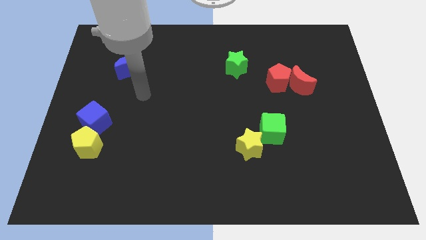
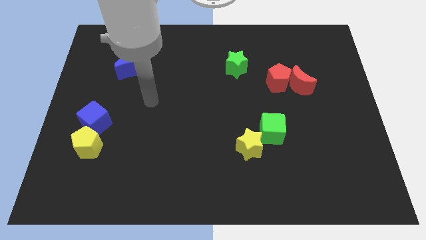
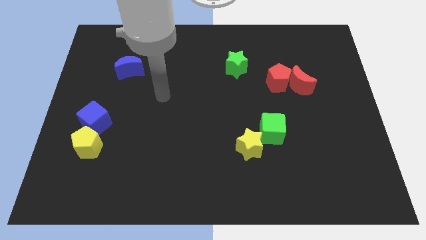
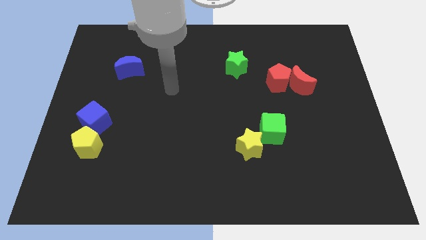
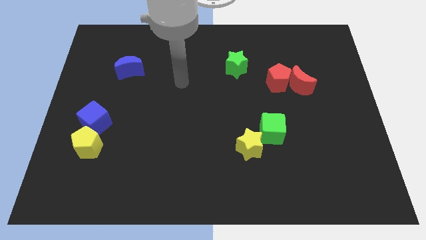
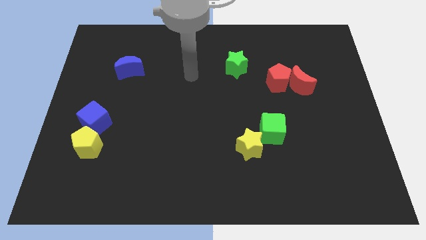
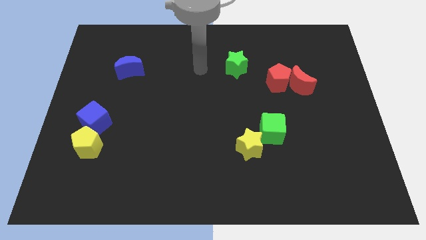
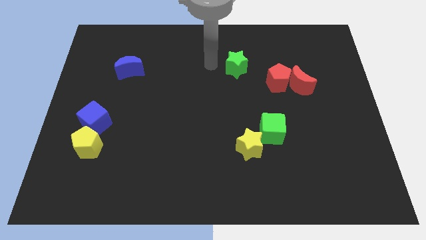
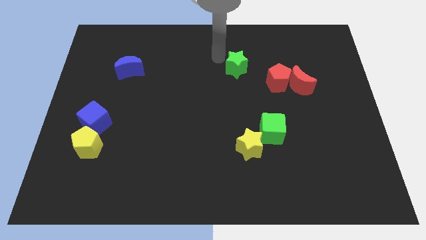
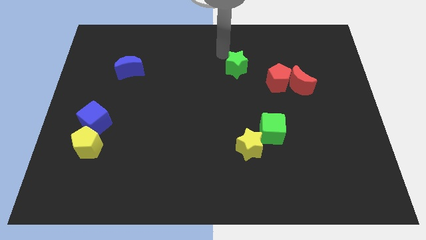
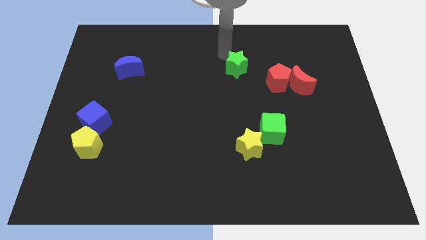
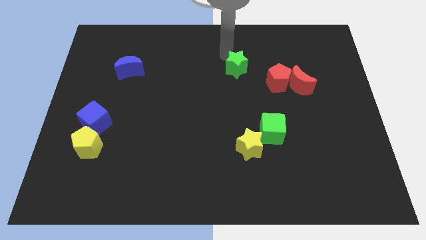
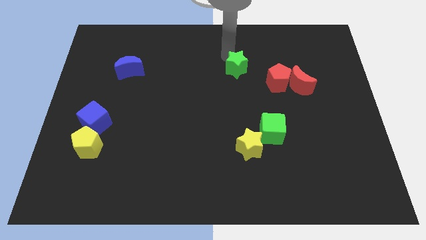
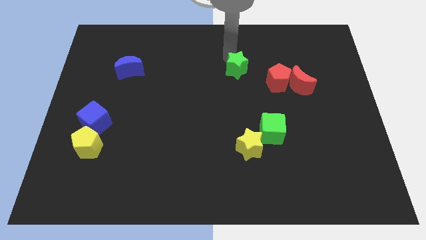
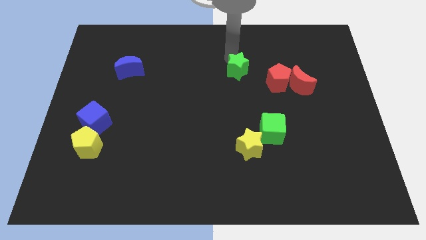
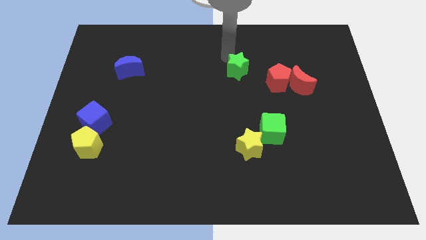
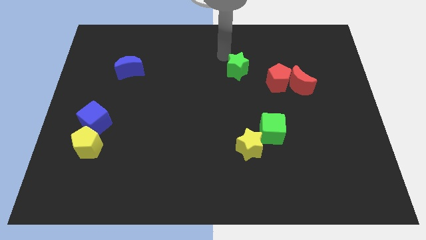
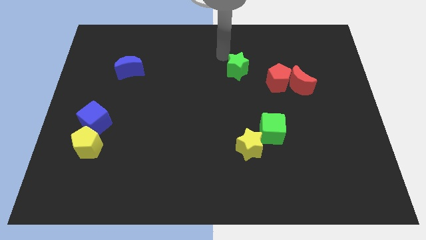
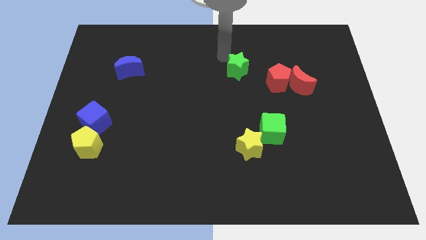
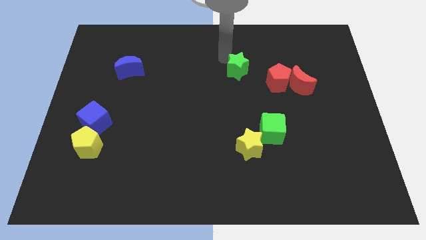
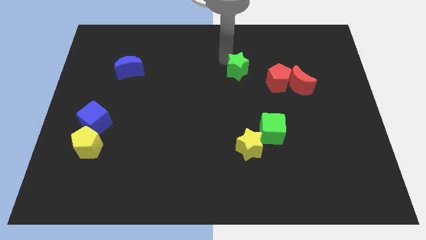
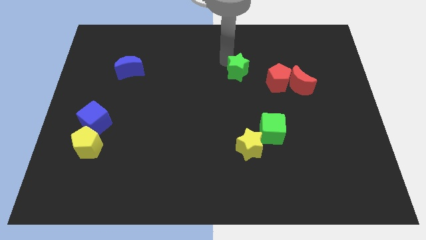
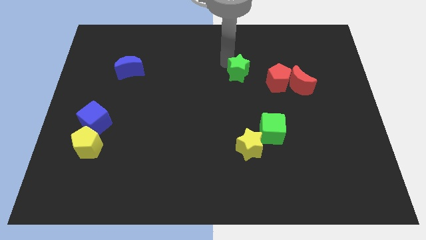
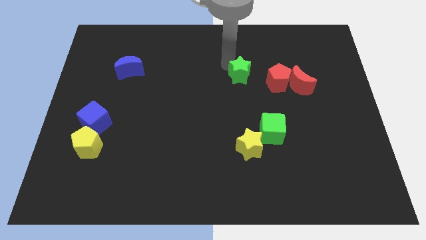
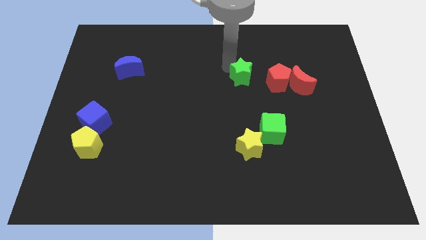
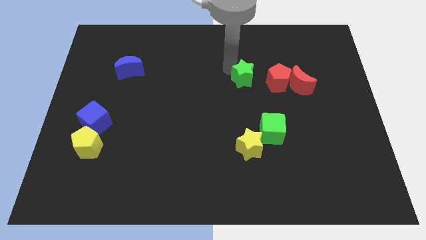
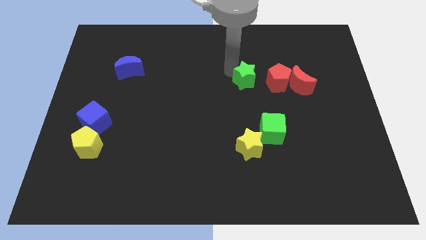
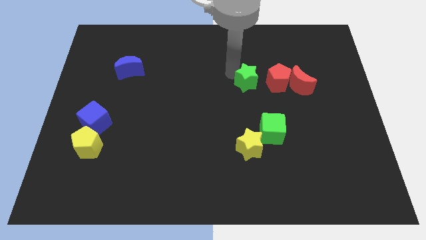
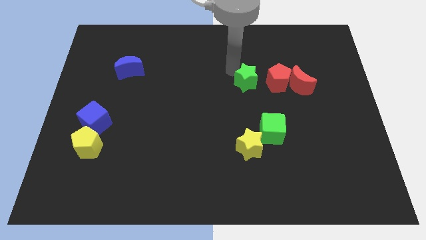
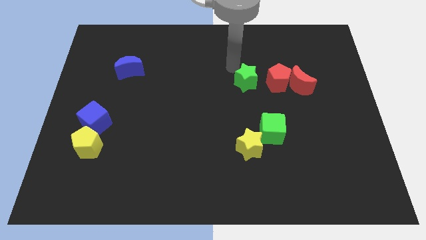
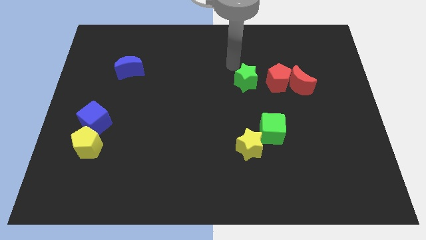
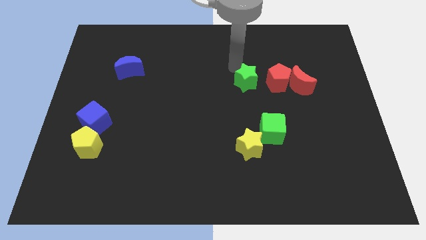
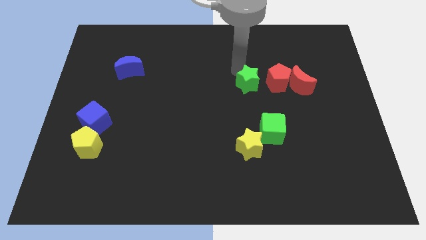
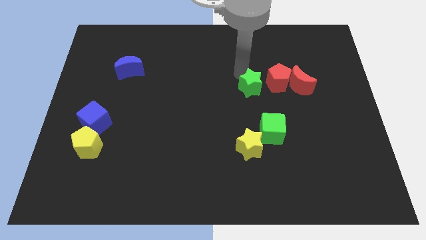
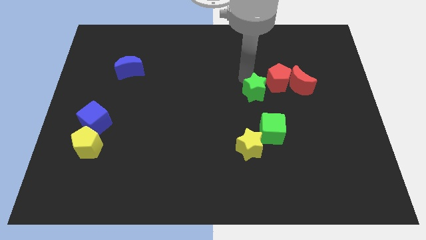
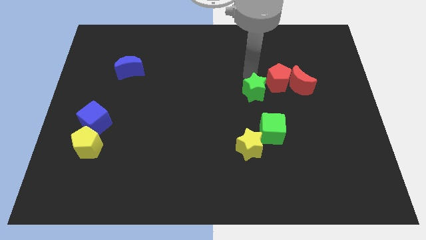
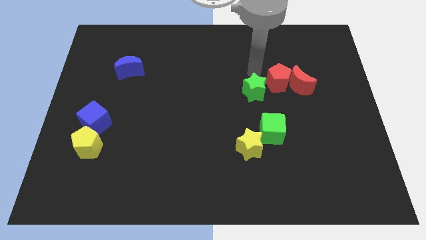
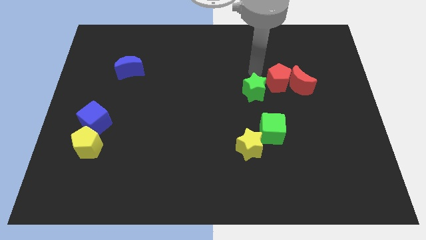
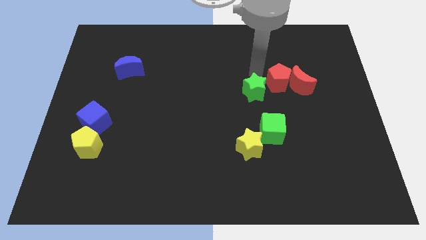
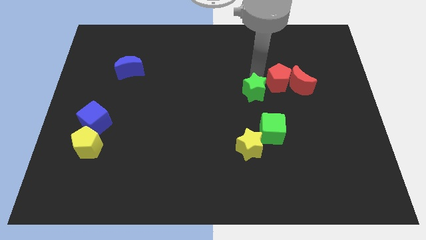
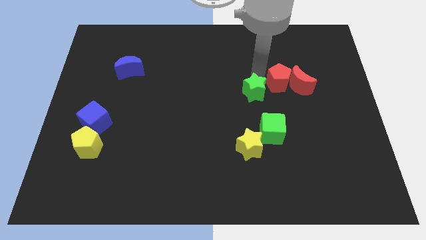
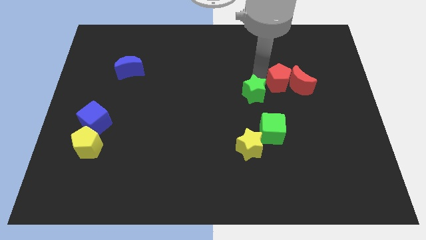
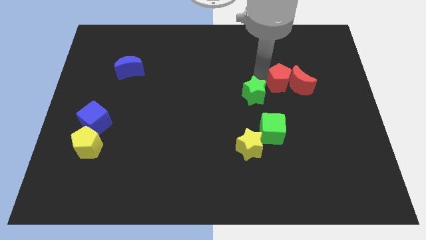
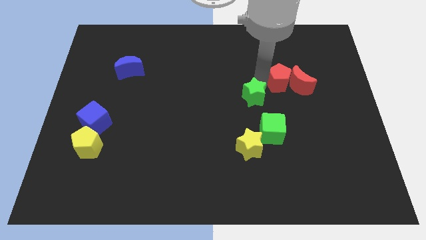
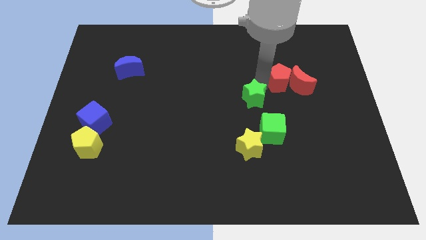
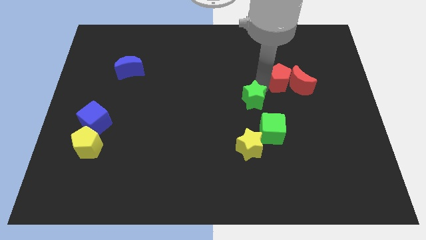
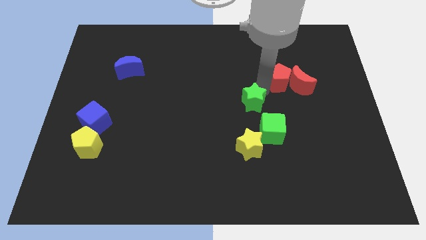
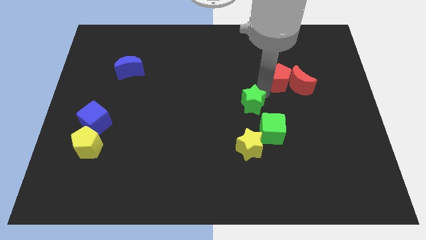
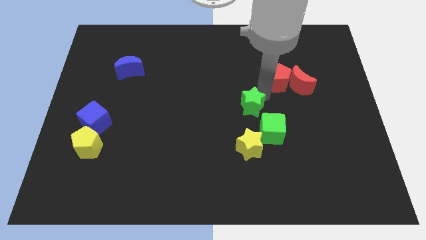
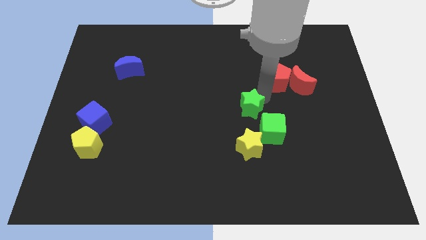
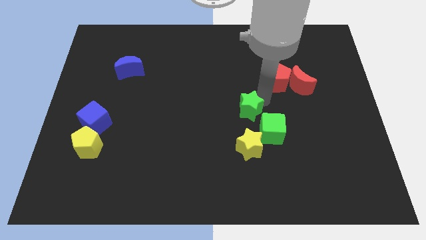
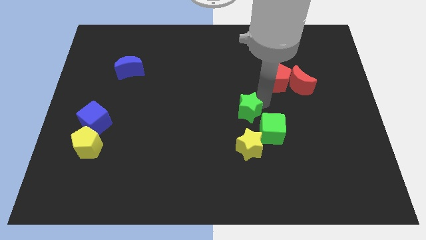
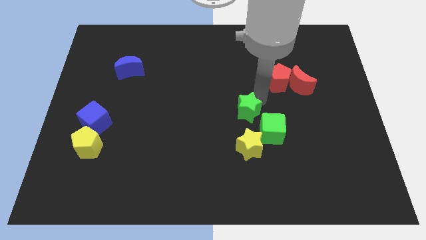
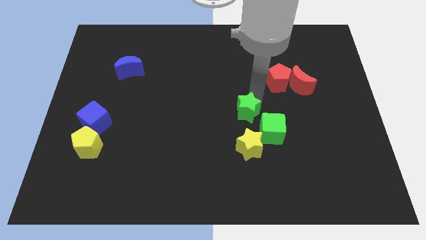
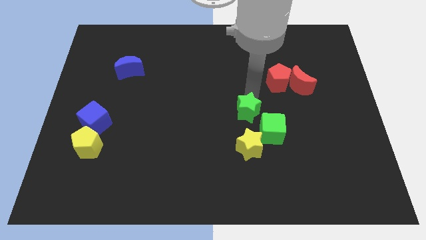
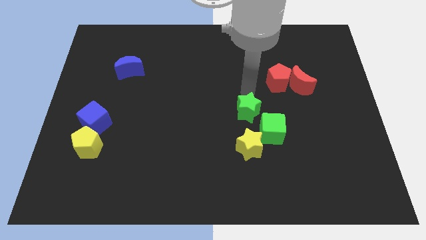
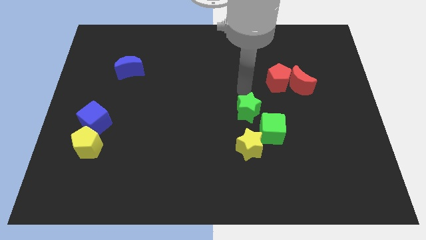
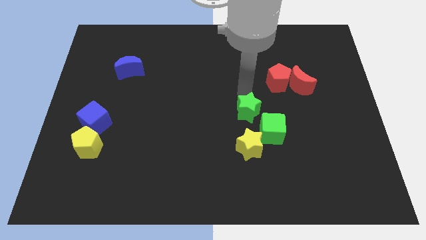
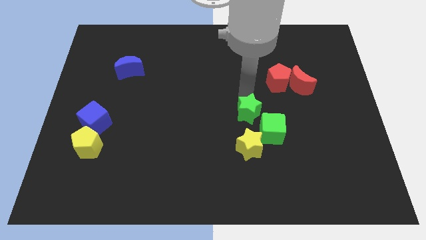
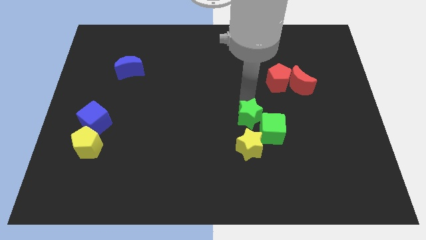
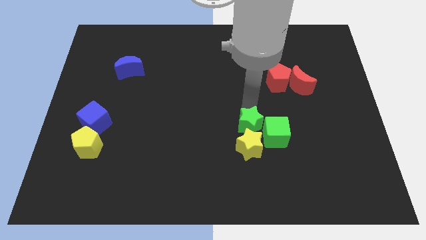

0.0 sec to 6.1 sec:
push the green star towards the yellow star

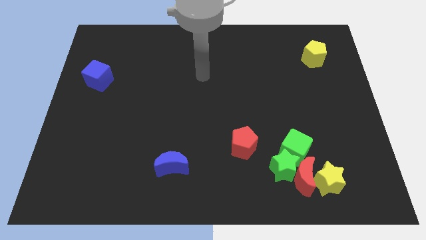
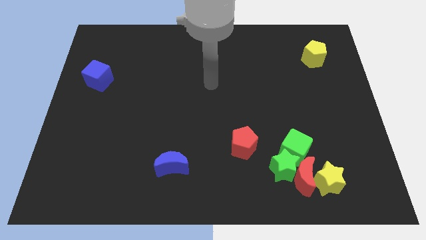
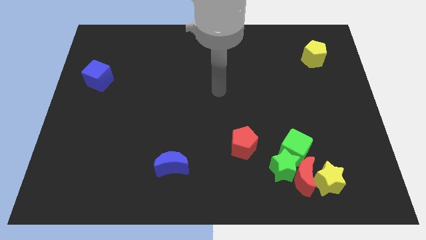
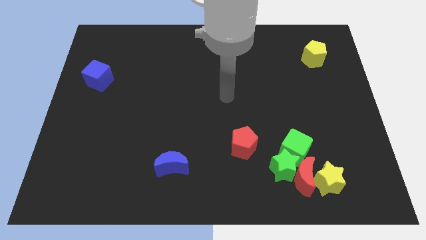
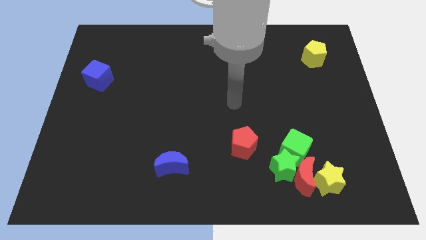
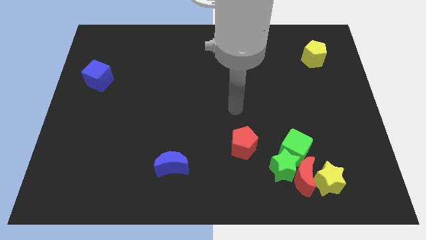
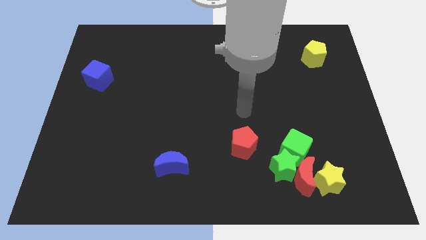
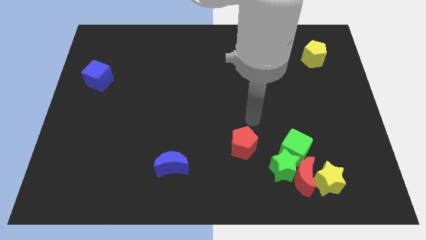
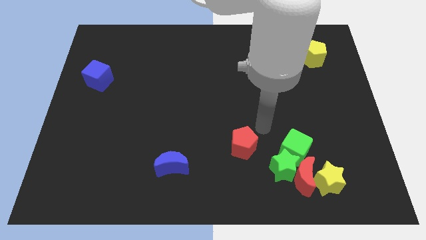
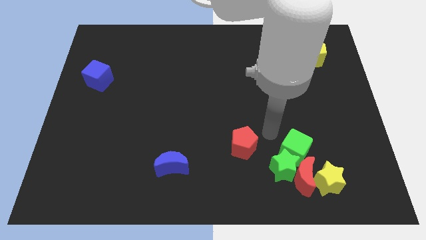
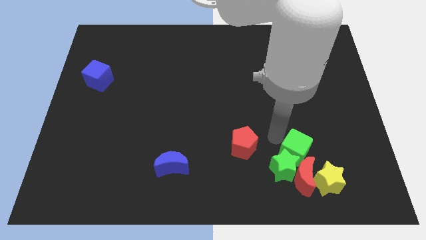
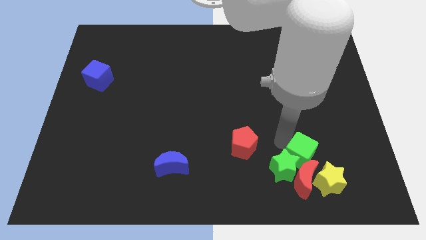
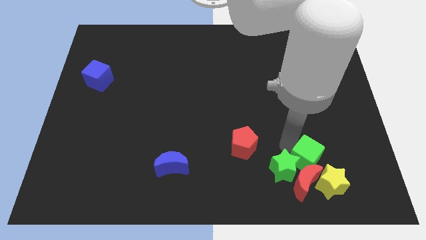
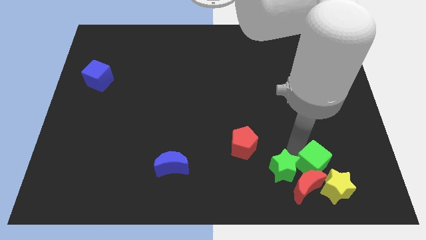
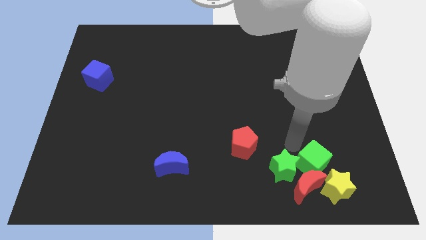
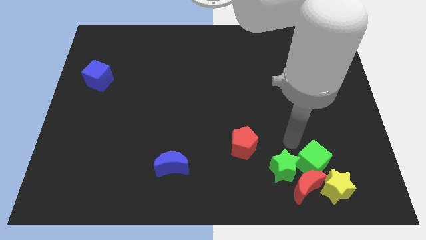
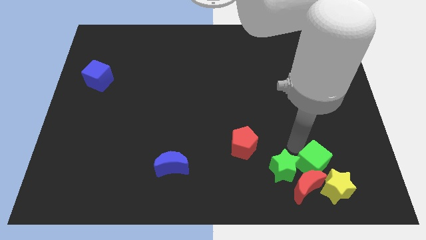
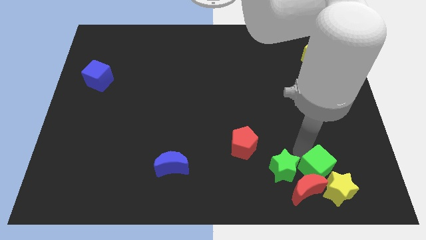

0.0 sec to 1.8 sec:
put the green cube close to the yellow star
